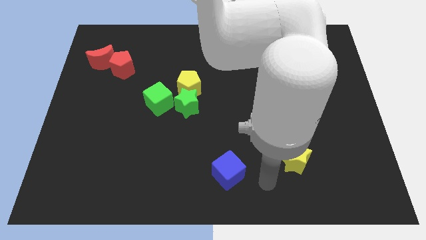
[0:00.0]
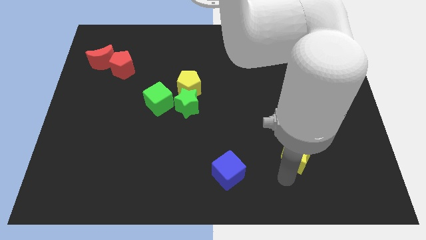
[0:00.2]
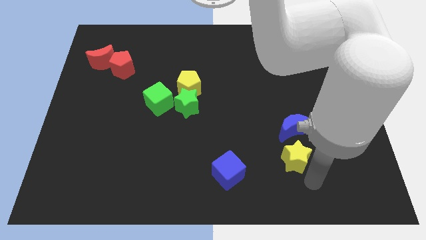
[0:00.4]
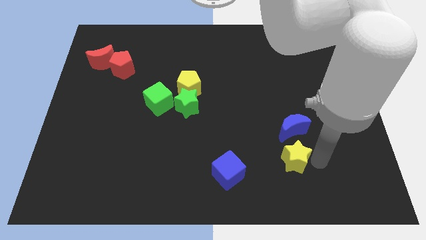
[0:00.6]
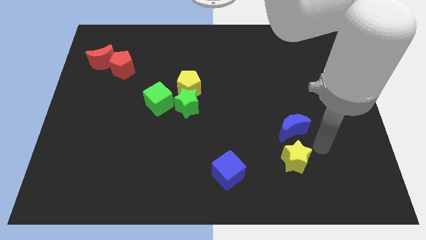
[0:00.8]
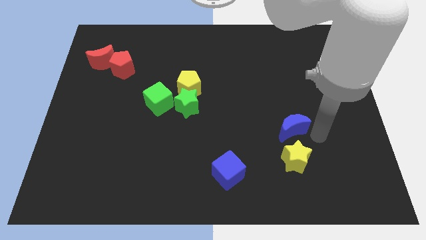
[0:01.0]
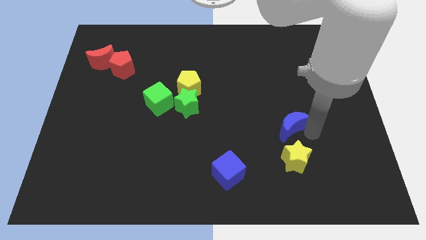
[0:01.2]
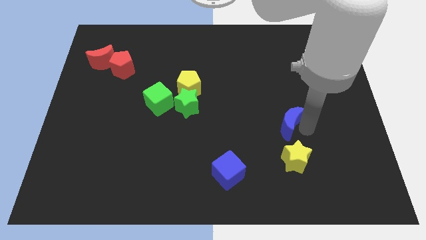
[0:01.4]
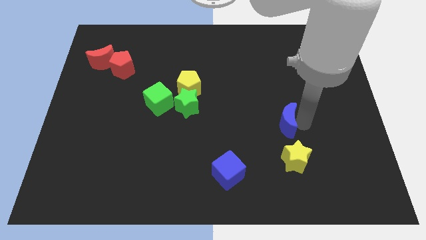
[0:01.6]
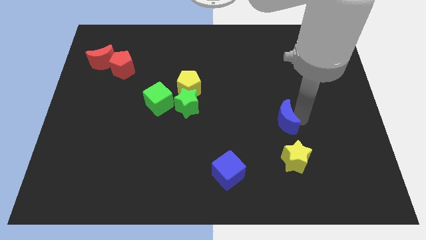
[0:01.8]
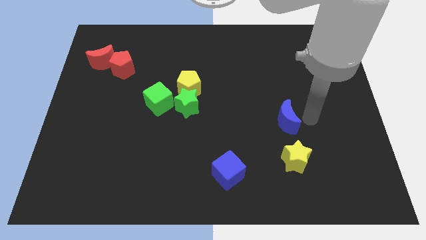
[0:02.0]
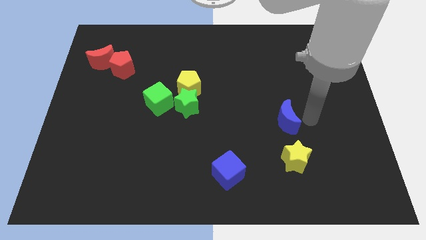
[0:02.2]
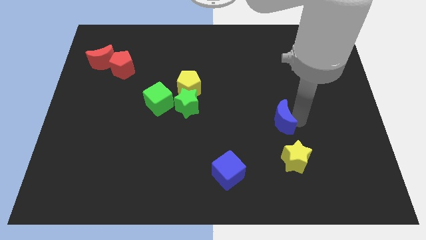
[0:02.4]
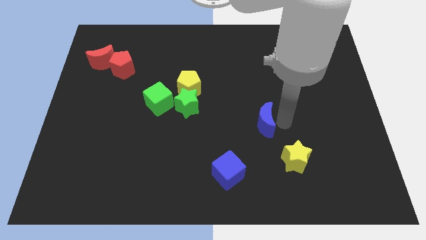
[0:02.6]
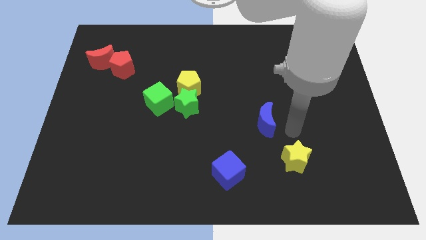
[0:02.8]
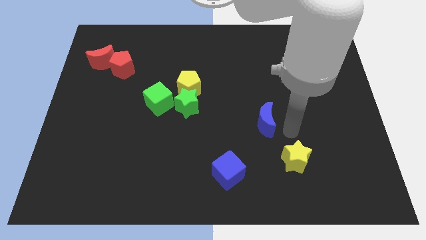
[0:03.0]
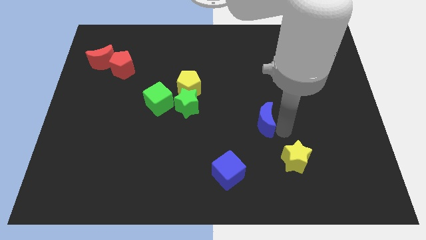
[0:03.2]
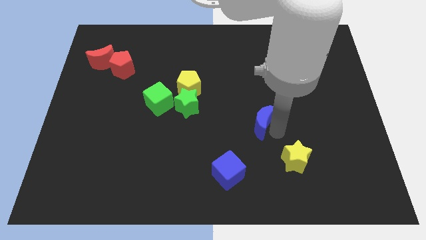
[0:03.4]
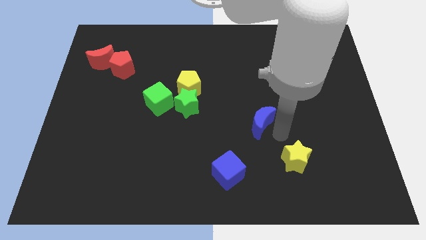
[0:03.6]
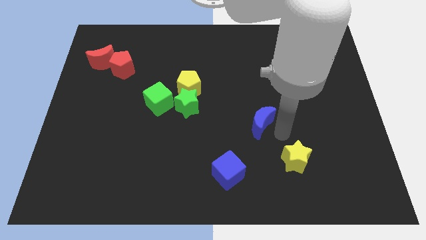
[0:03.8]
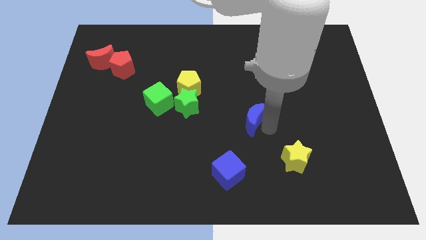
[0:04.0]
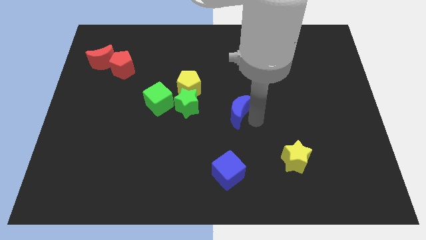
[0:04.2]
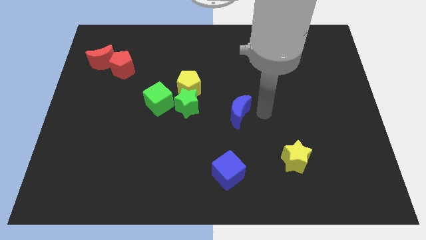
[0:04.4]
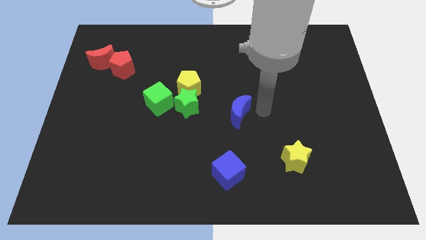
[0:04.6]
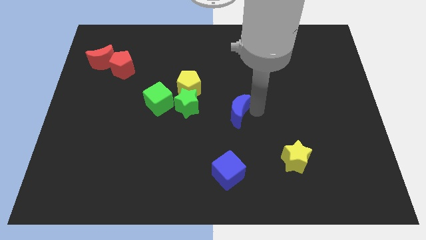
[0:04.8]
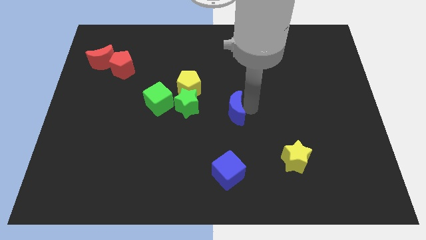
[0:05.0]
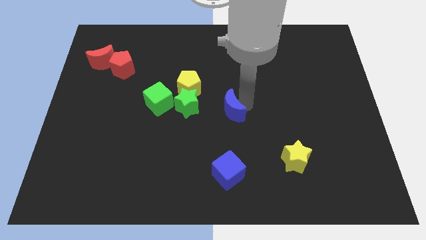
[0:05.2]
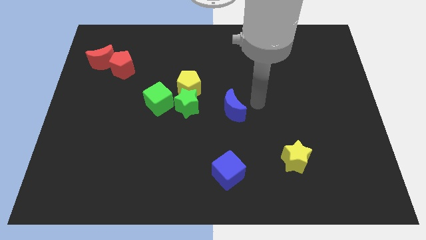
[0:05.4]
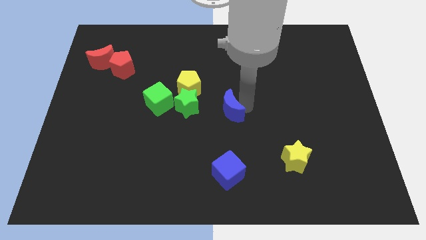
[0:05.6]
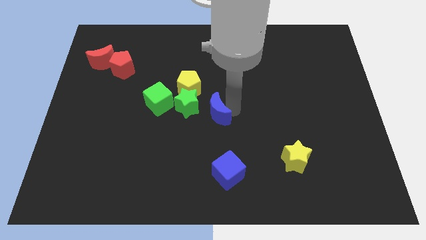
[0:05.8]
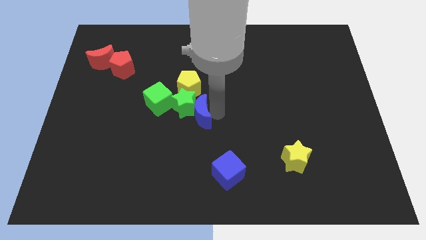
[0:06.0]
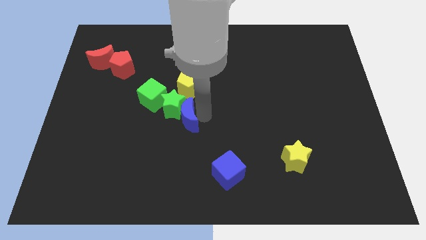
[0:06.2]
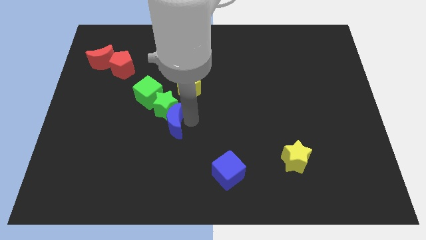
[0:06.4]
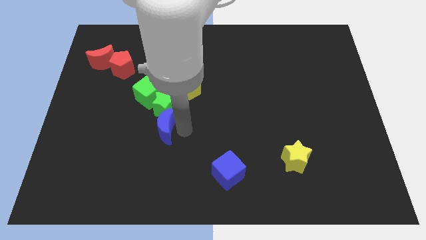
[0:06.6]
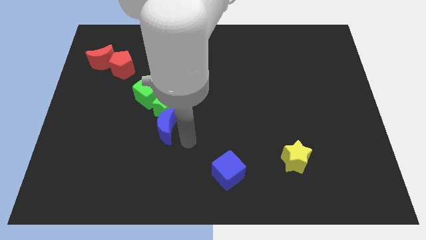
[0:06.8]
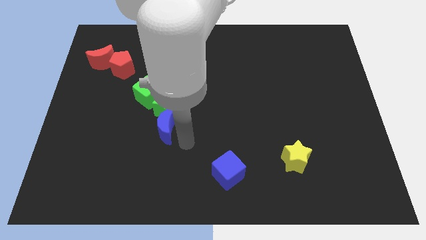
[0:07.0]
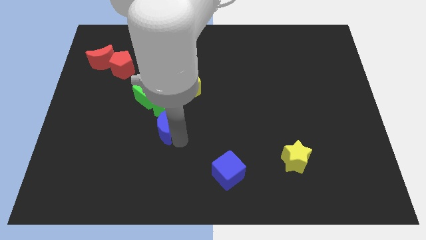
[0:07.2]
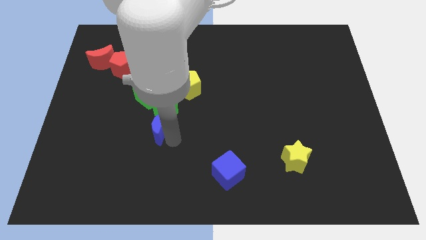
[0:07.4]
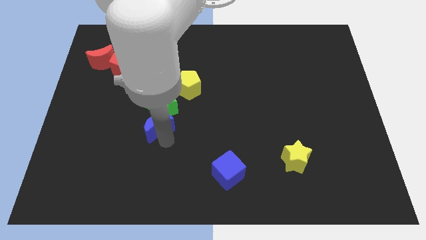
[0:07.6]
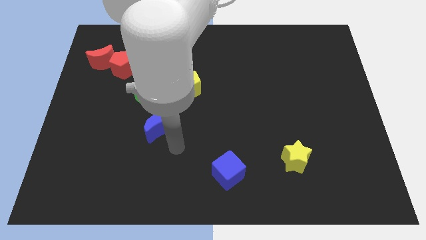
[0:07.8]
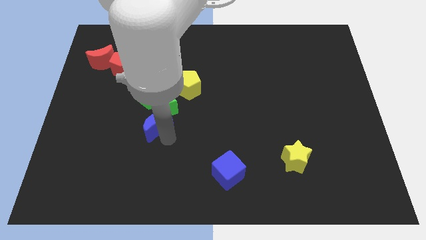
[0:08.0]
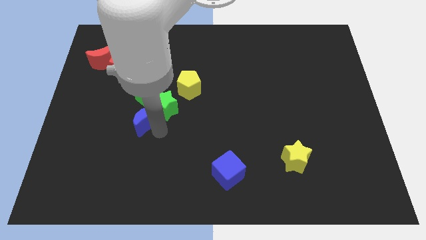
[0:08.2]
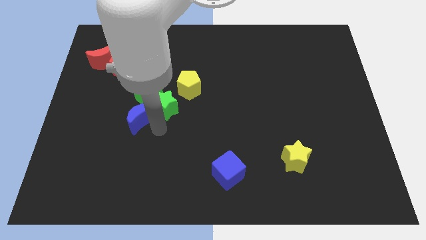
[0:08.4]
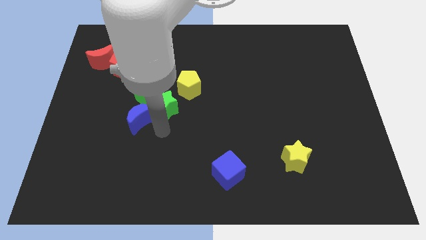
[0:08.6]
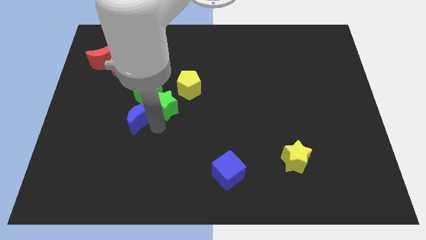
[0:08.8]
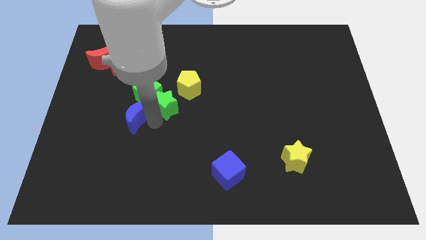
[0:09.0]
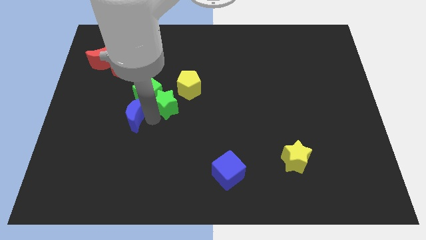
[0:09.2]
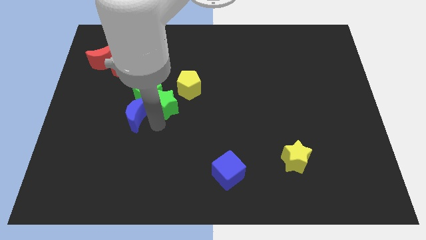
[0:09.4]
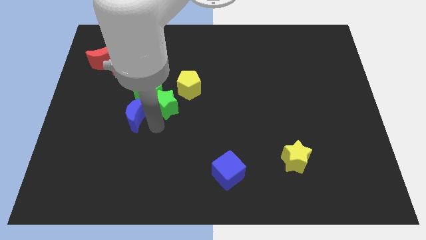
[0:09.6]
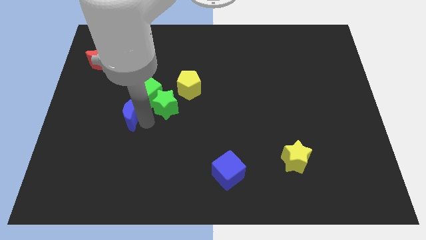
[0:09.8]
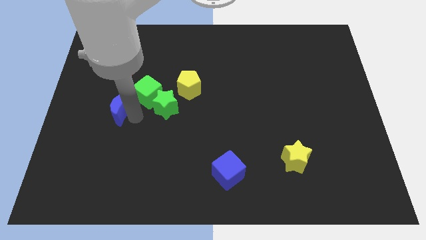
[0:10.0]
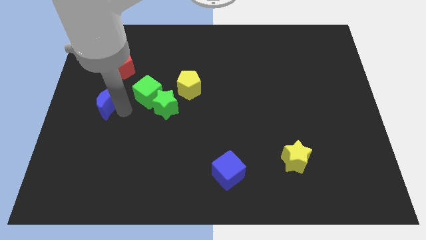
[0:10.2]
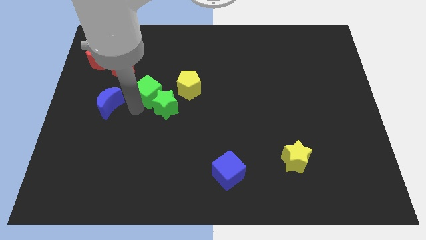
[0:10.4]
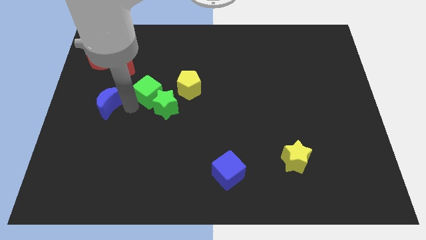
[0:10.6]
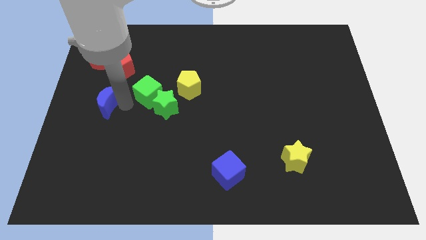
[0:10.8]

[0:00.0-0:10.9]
push the blue moon to the left side
